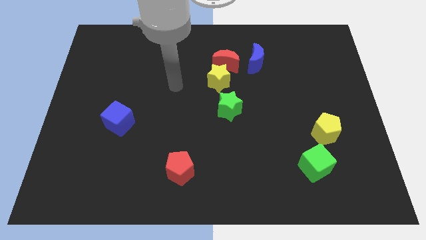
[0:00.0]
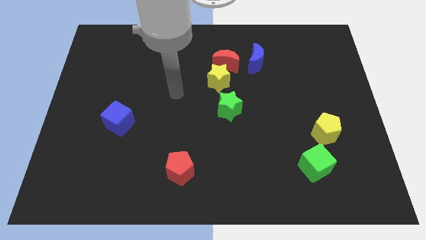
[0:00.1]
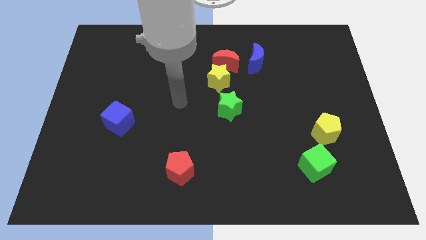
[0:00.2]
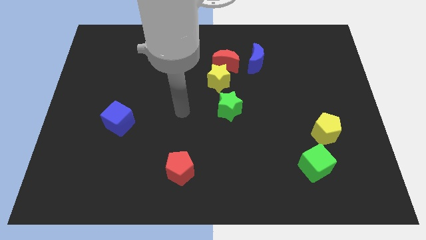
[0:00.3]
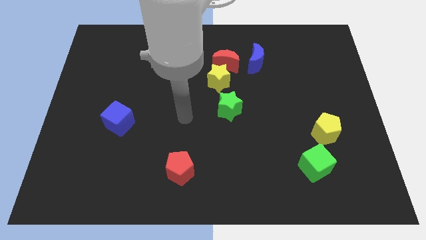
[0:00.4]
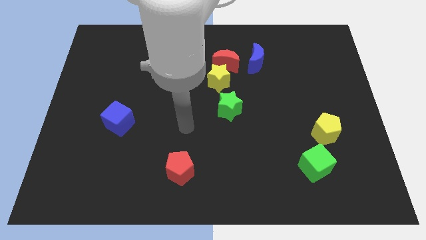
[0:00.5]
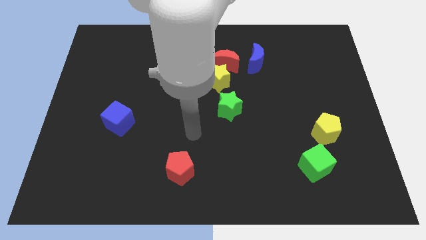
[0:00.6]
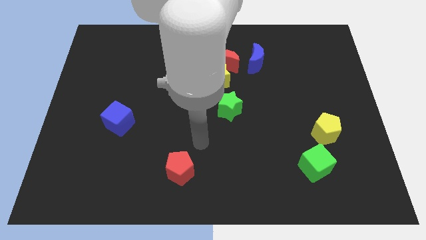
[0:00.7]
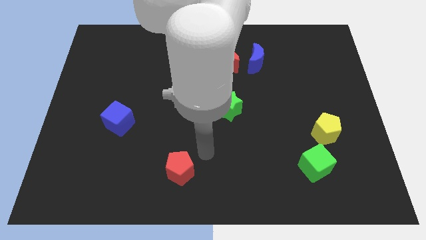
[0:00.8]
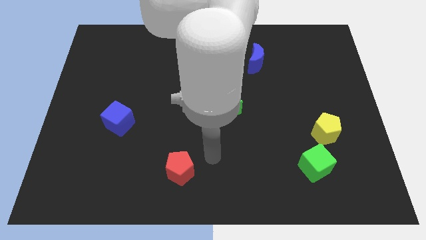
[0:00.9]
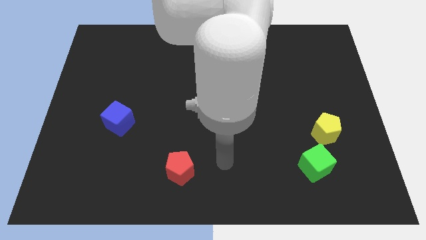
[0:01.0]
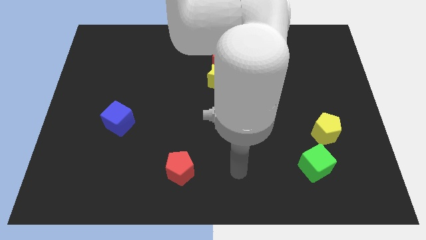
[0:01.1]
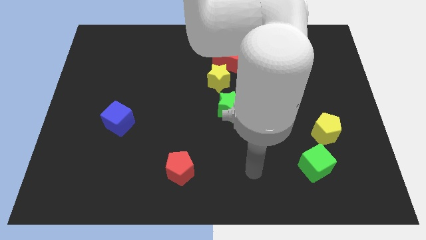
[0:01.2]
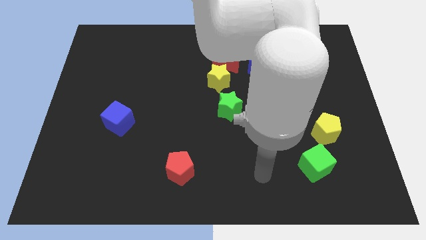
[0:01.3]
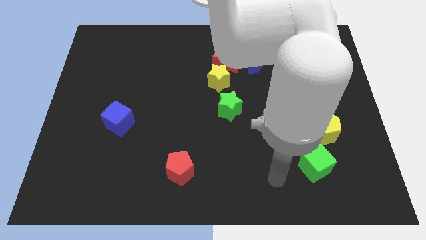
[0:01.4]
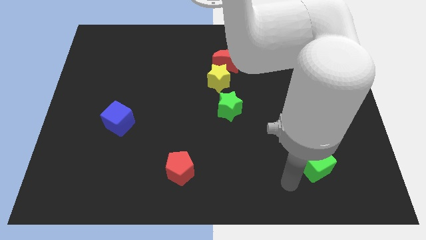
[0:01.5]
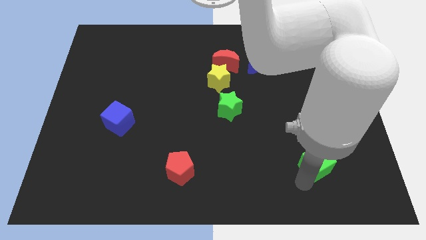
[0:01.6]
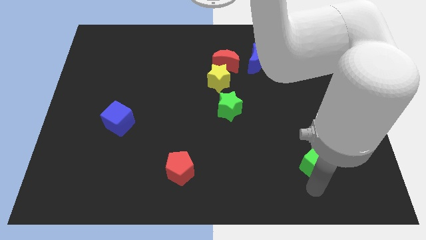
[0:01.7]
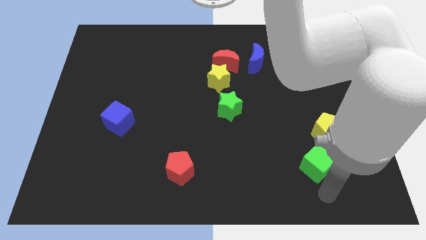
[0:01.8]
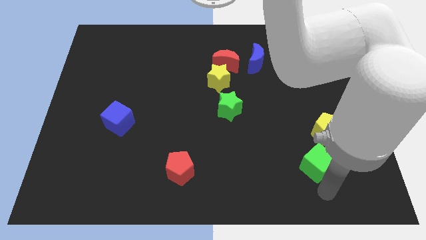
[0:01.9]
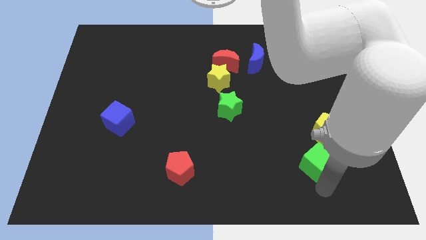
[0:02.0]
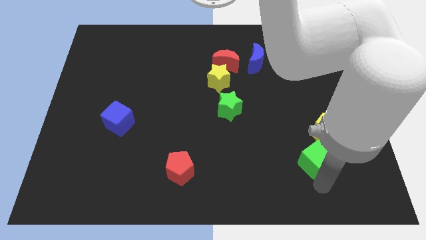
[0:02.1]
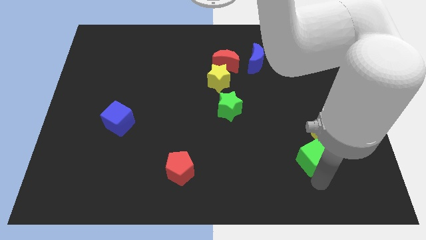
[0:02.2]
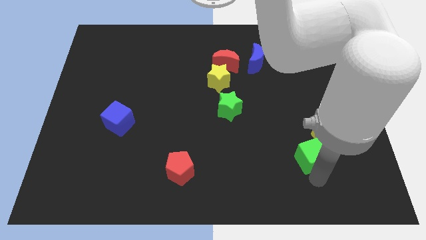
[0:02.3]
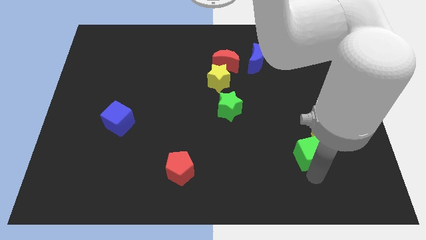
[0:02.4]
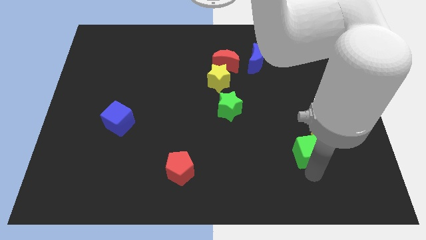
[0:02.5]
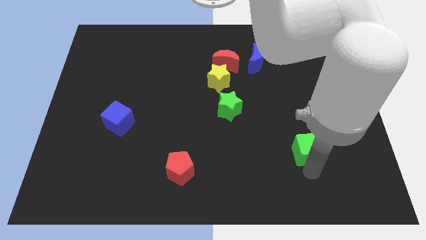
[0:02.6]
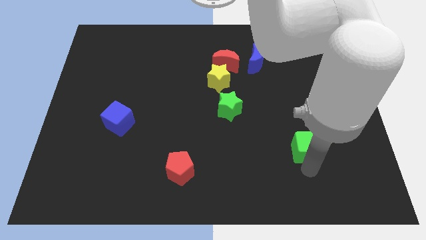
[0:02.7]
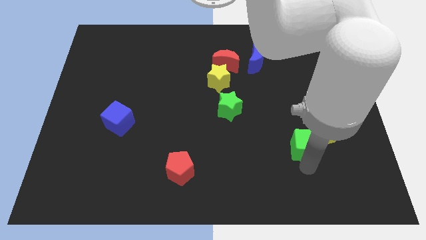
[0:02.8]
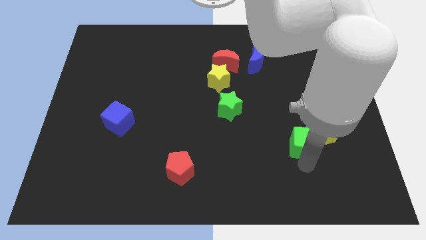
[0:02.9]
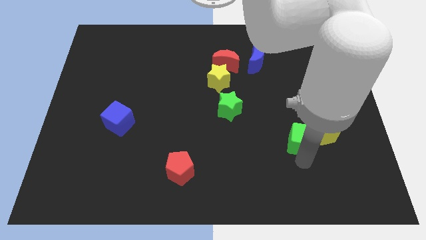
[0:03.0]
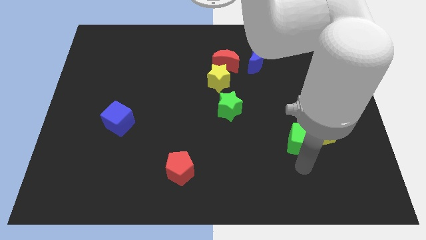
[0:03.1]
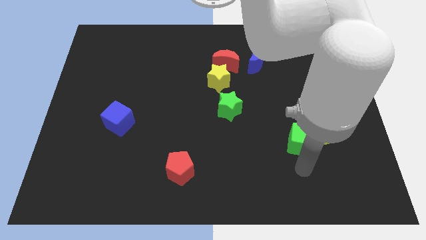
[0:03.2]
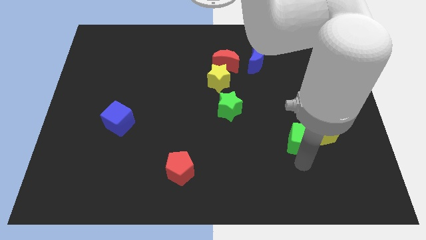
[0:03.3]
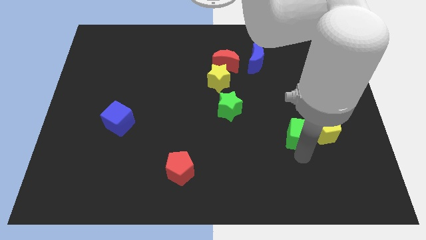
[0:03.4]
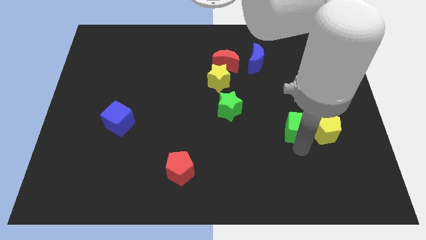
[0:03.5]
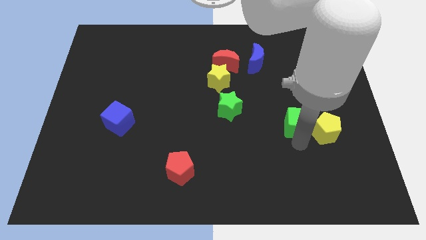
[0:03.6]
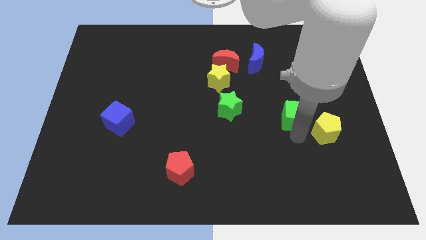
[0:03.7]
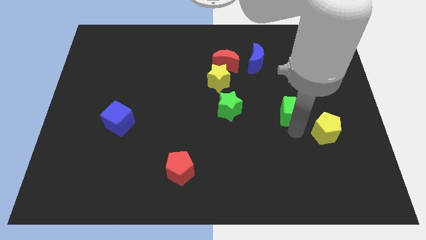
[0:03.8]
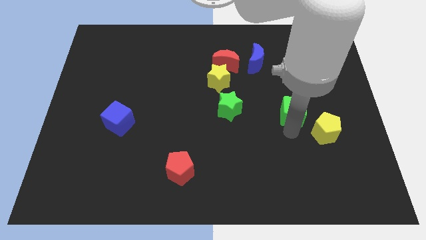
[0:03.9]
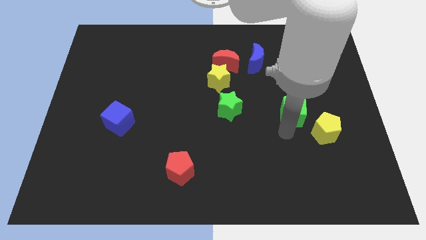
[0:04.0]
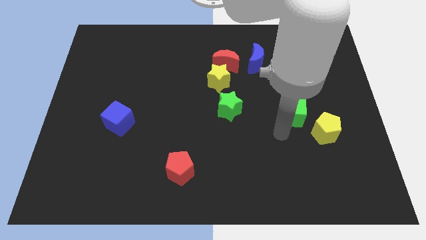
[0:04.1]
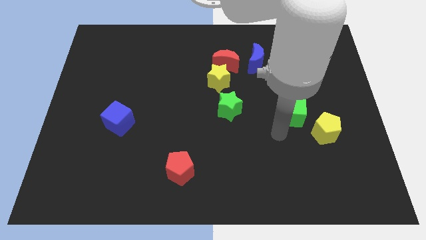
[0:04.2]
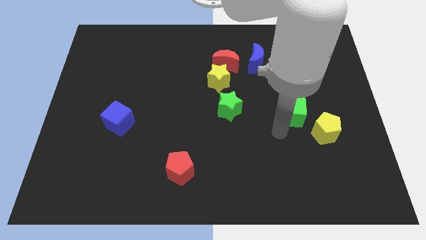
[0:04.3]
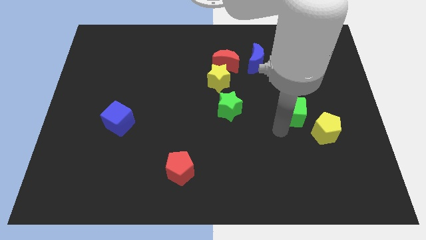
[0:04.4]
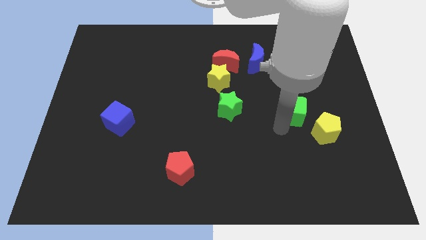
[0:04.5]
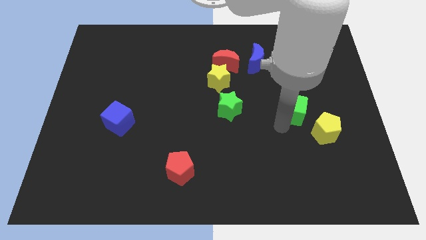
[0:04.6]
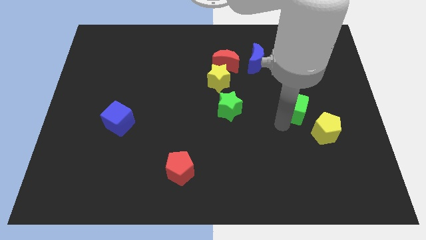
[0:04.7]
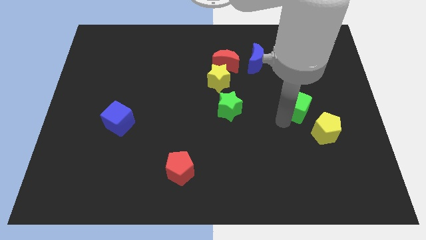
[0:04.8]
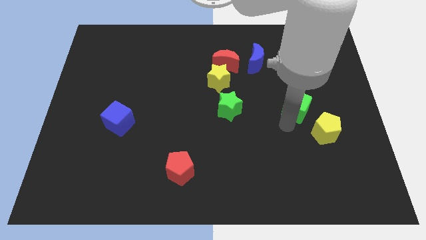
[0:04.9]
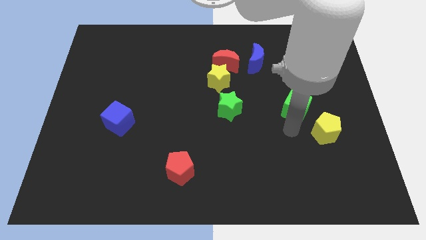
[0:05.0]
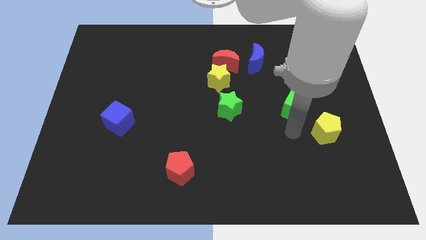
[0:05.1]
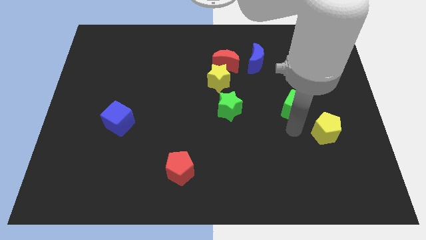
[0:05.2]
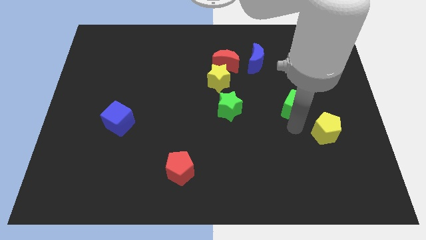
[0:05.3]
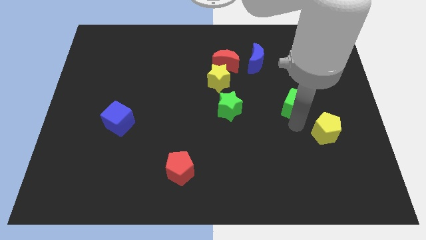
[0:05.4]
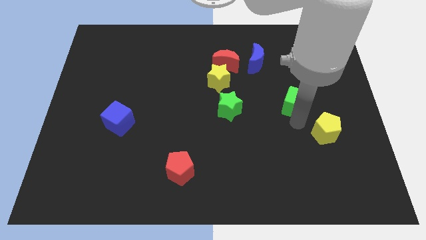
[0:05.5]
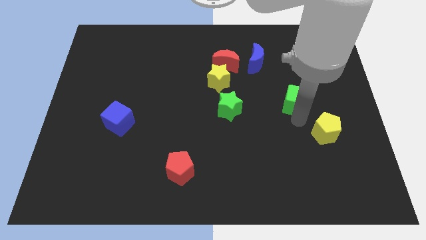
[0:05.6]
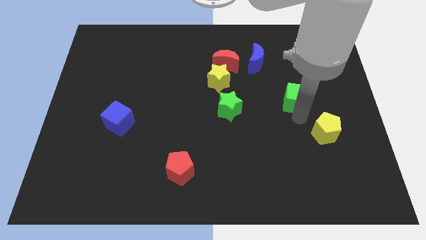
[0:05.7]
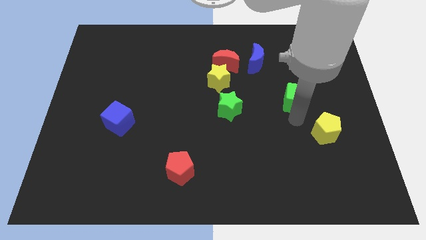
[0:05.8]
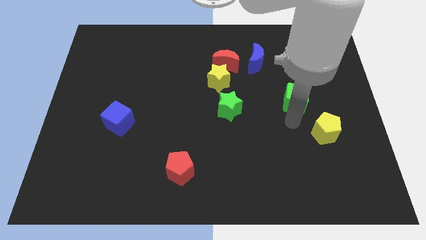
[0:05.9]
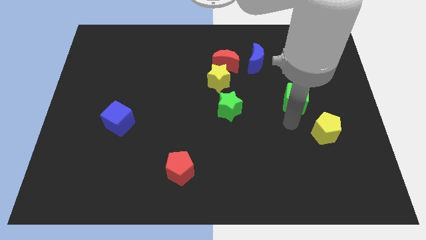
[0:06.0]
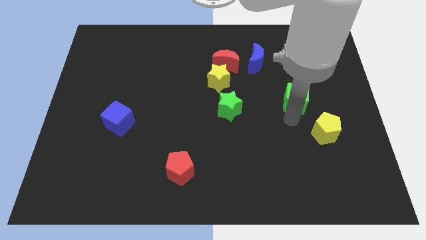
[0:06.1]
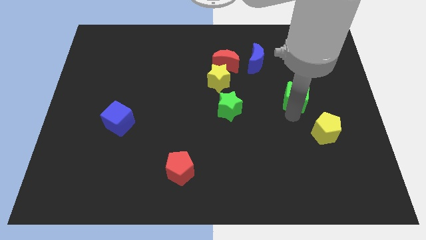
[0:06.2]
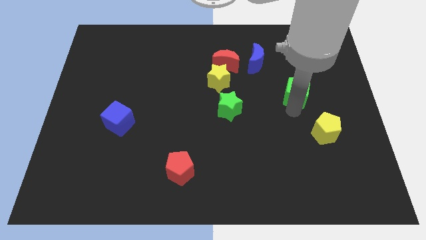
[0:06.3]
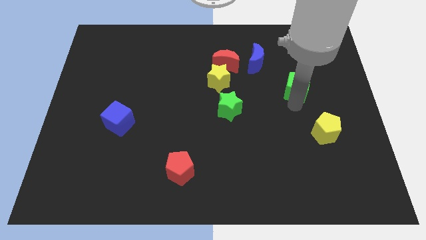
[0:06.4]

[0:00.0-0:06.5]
push the green cube up

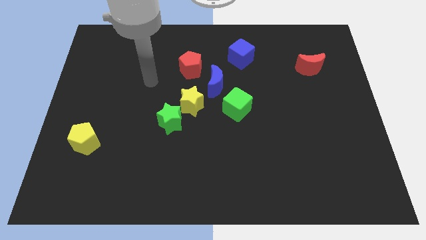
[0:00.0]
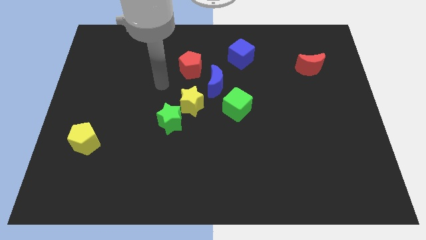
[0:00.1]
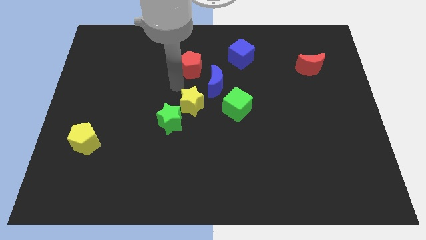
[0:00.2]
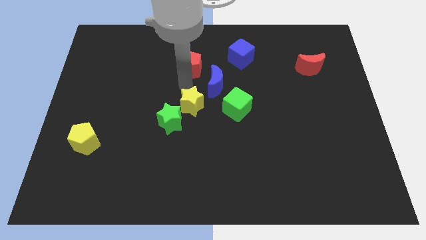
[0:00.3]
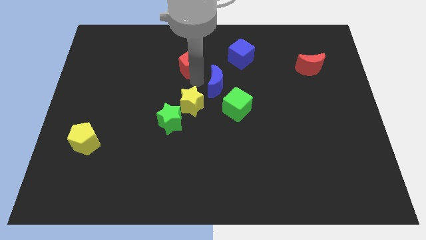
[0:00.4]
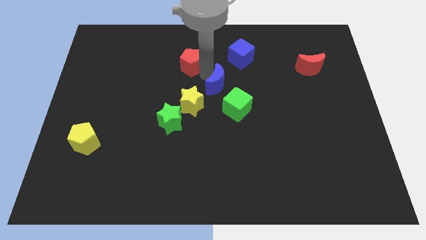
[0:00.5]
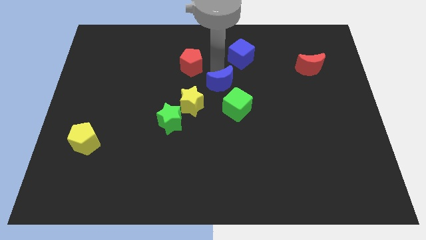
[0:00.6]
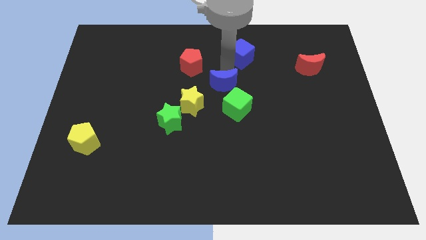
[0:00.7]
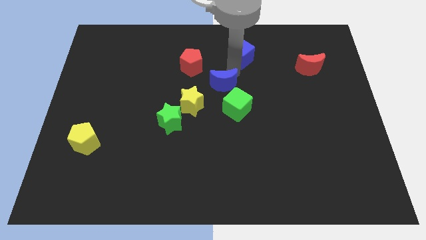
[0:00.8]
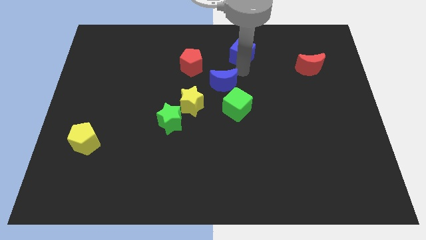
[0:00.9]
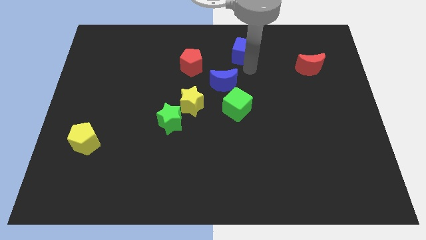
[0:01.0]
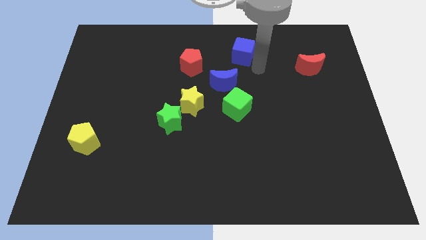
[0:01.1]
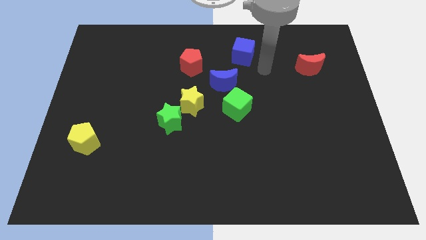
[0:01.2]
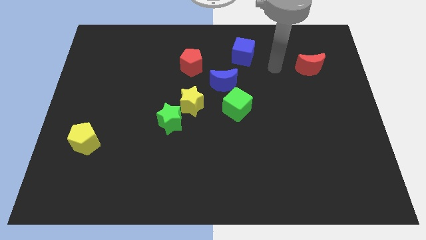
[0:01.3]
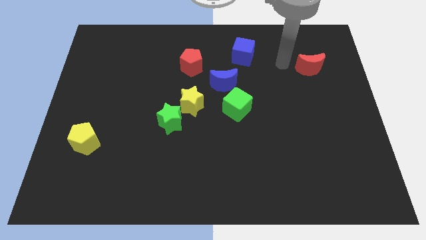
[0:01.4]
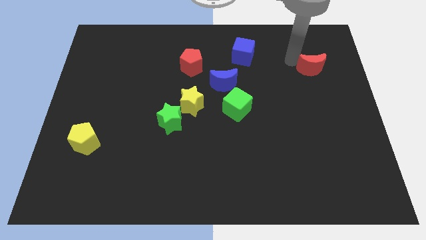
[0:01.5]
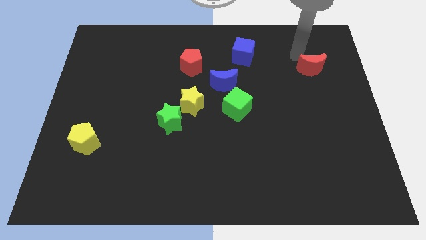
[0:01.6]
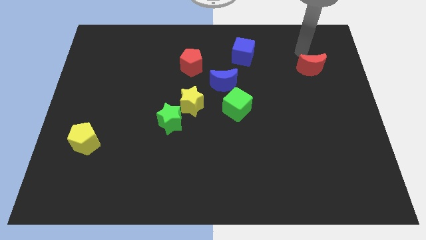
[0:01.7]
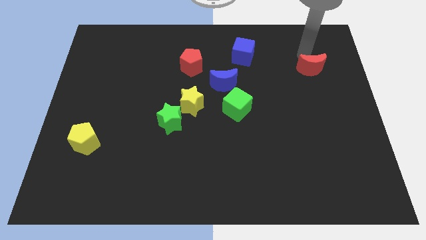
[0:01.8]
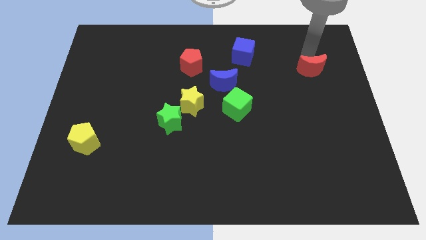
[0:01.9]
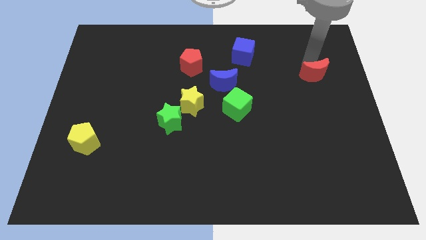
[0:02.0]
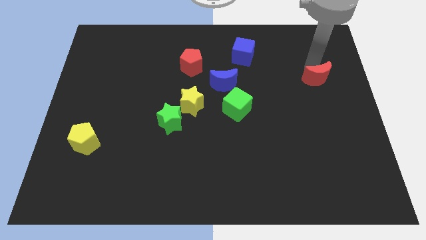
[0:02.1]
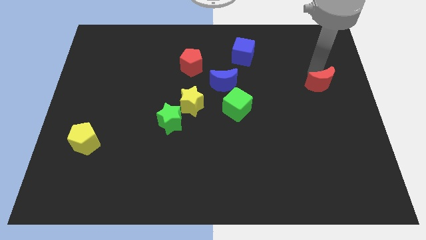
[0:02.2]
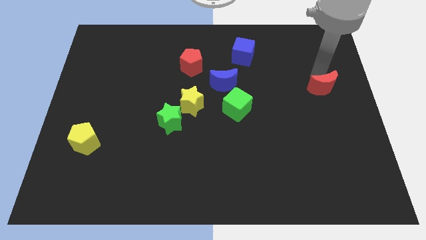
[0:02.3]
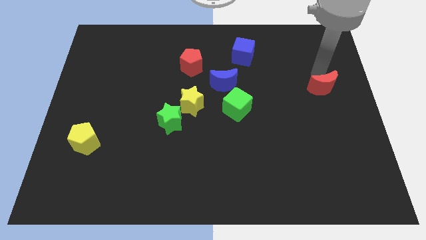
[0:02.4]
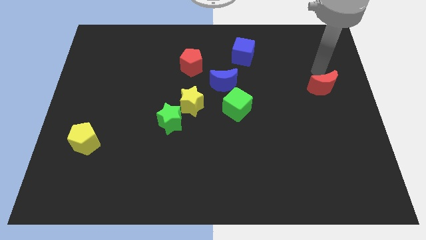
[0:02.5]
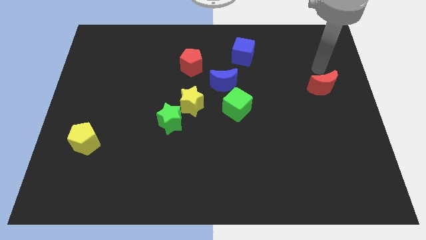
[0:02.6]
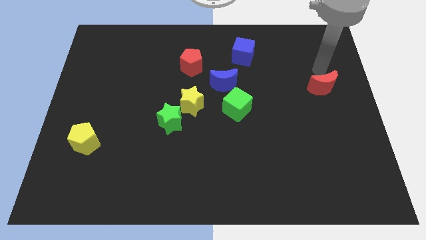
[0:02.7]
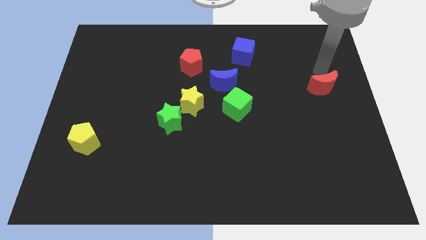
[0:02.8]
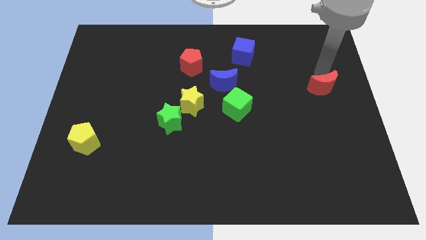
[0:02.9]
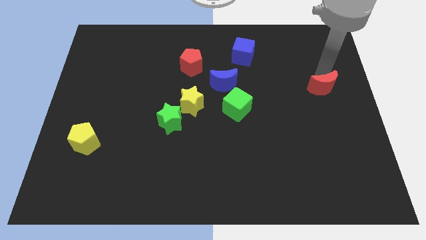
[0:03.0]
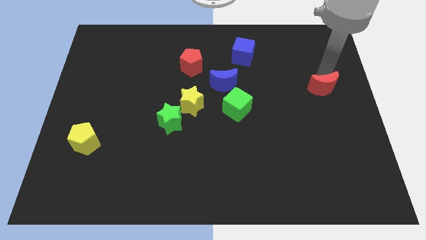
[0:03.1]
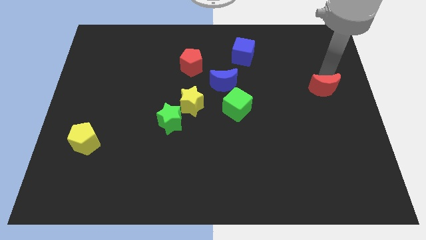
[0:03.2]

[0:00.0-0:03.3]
move the red moon down a little bit
